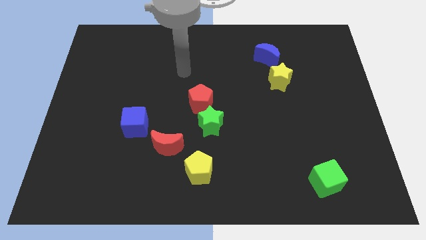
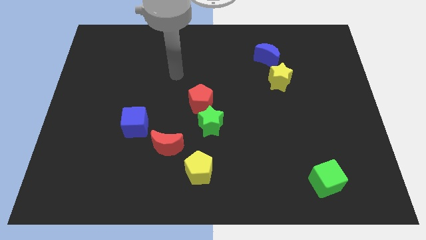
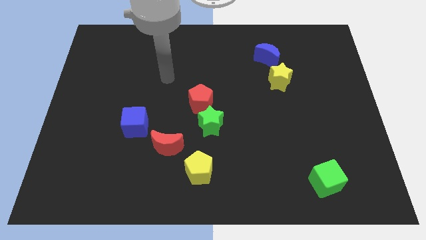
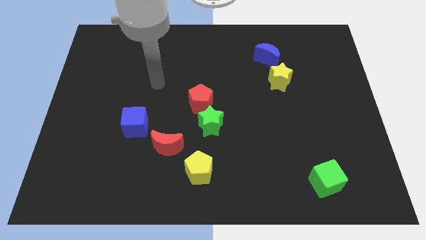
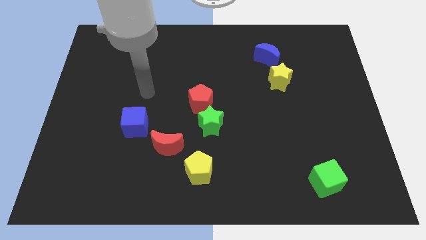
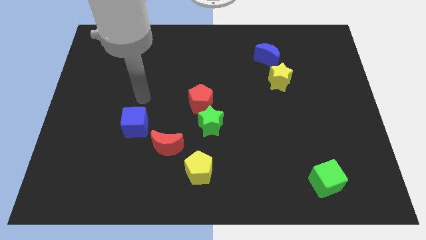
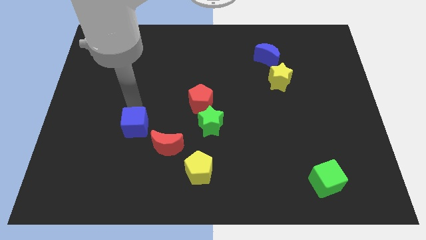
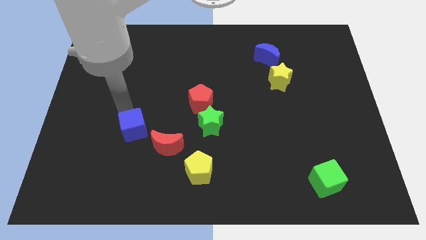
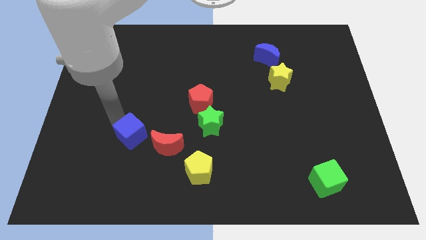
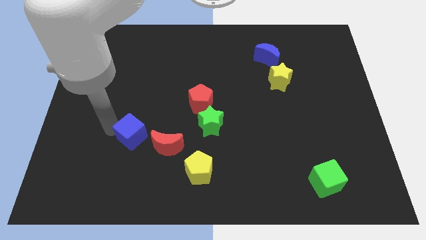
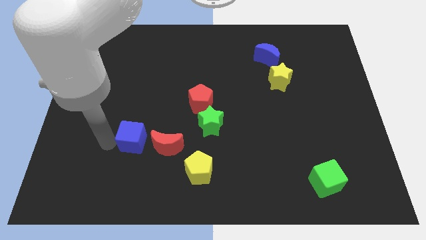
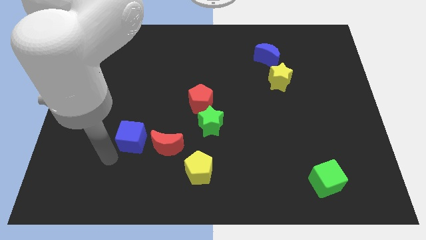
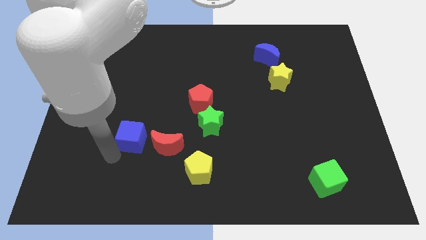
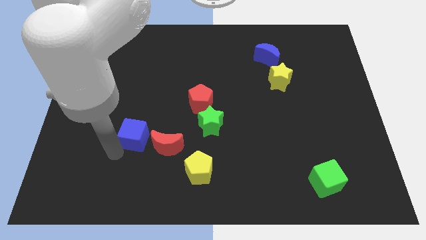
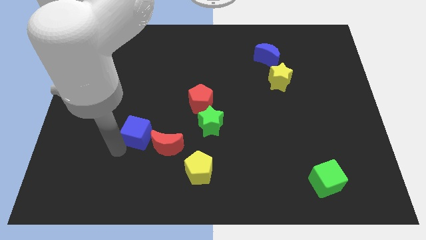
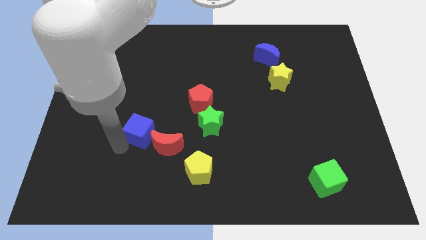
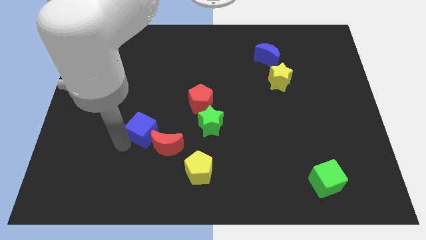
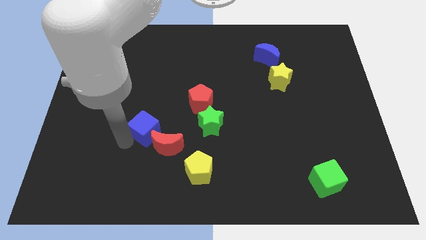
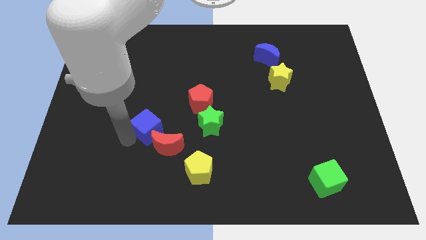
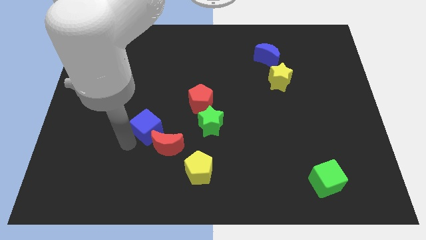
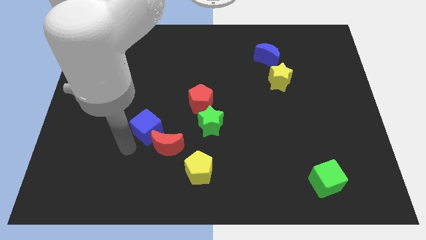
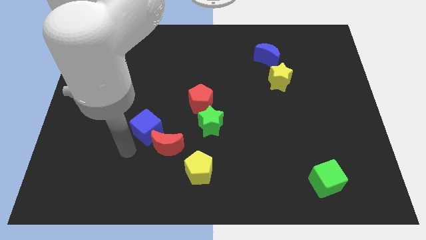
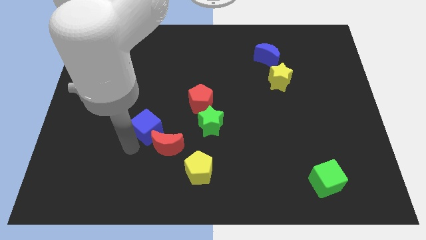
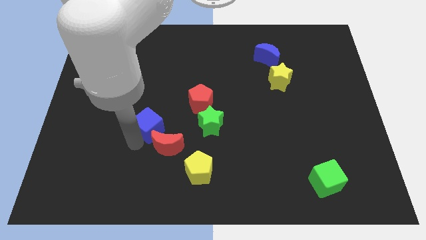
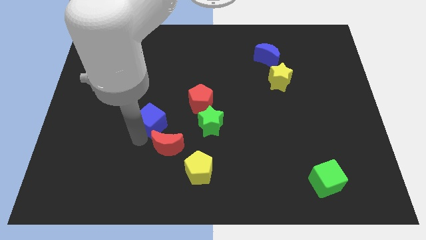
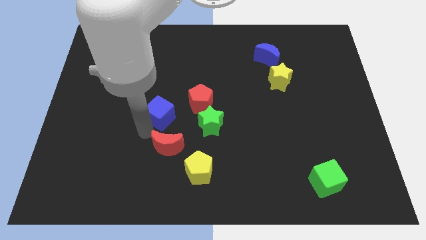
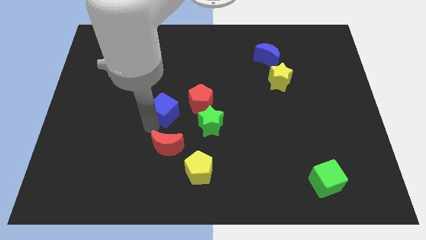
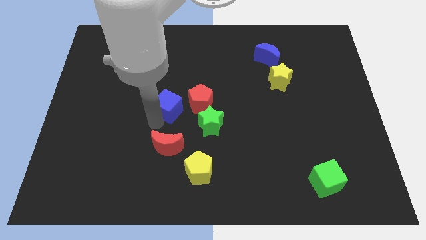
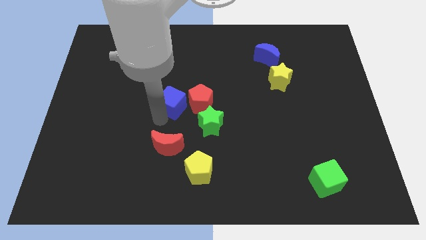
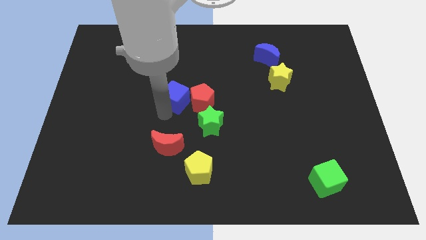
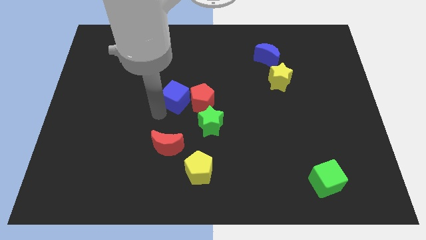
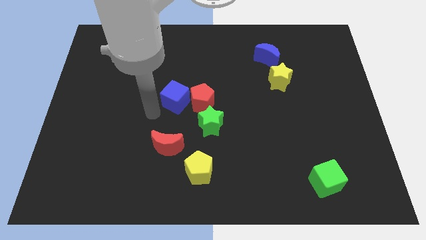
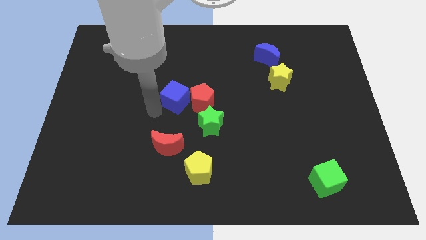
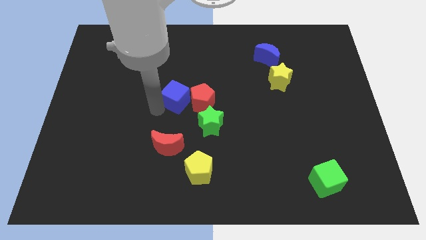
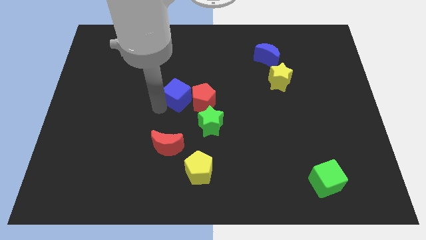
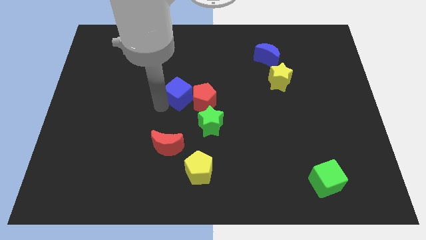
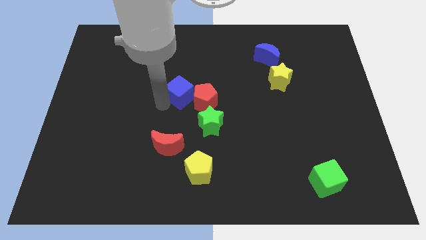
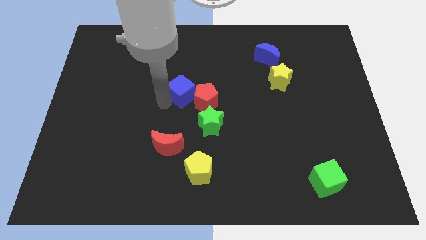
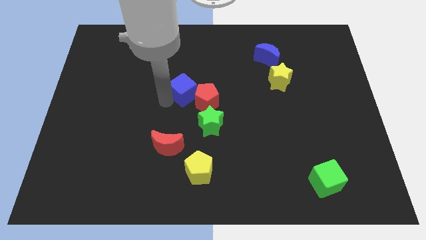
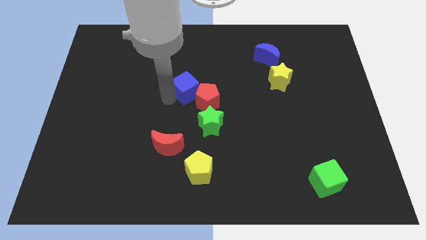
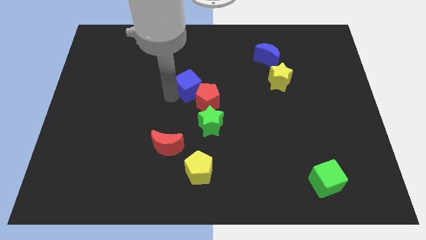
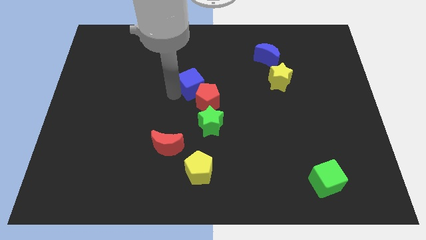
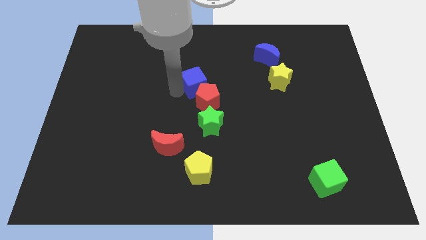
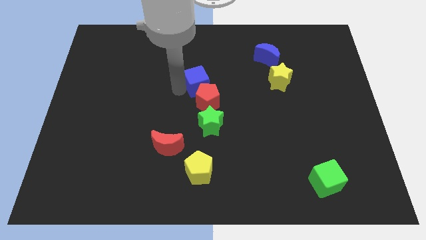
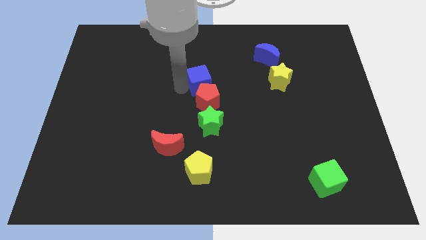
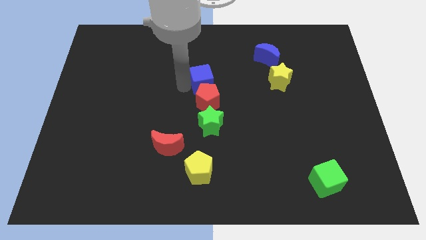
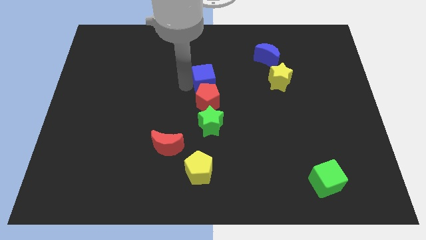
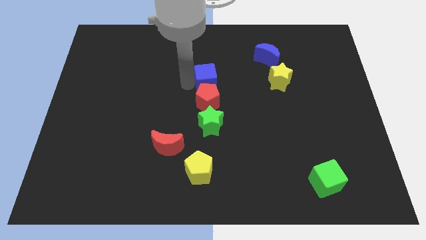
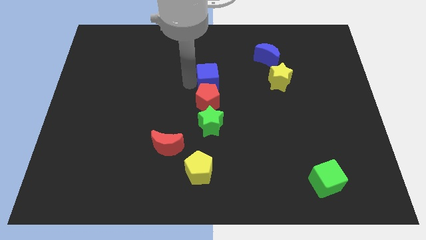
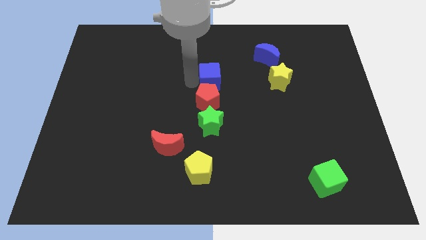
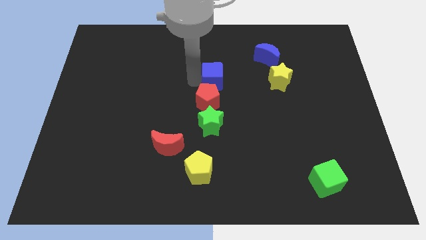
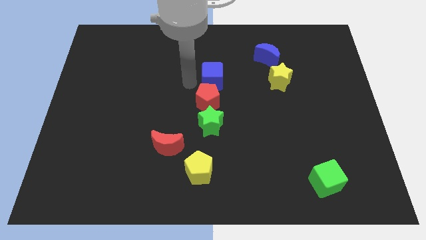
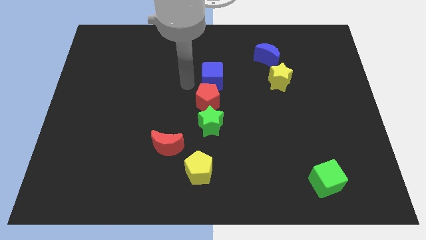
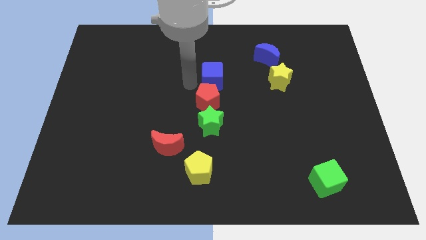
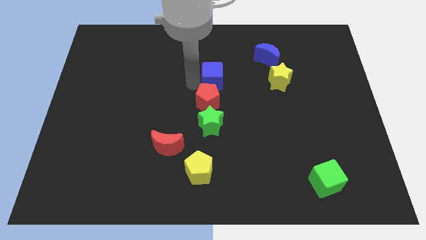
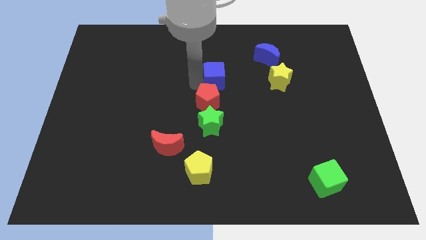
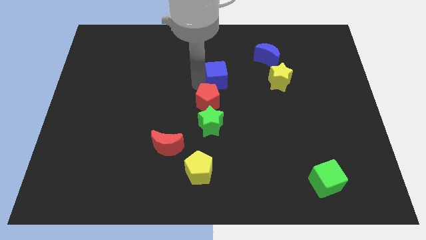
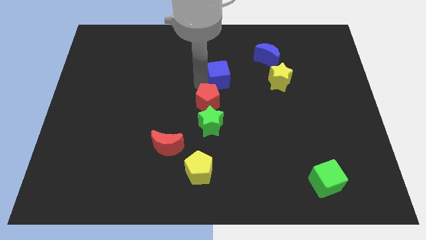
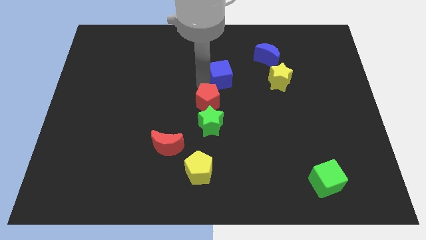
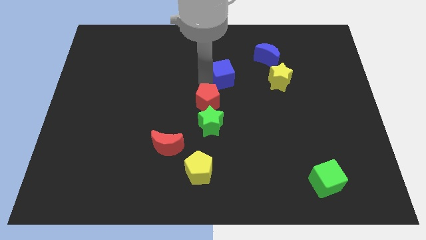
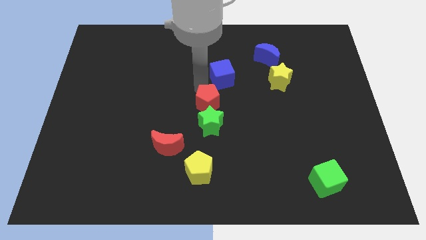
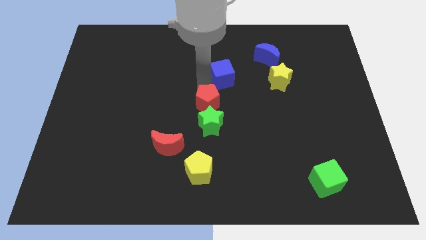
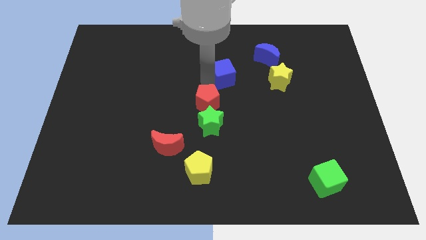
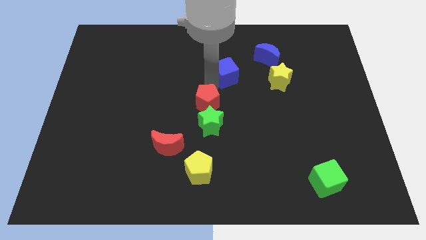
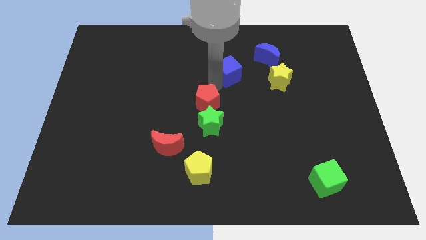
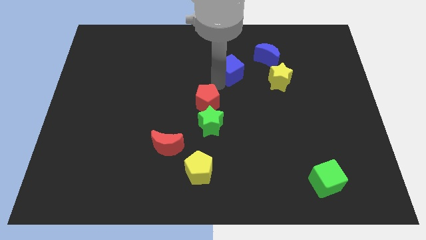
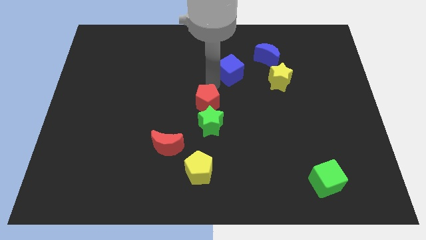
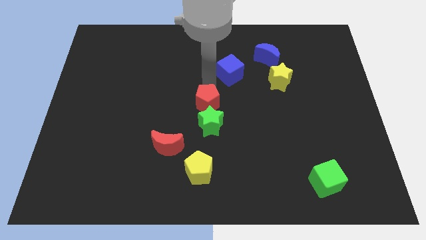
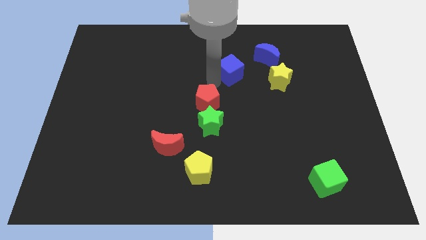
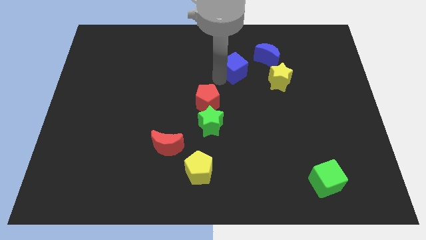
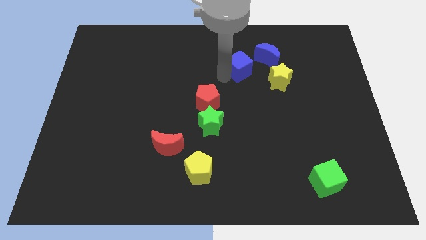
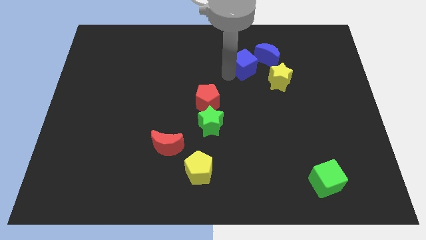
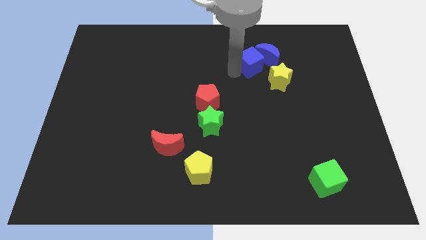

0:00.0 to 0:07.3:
push the blue cube close to the blue moon

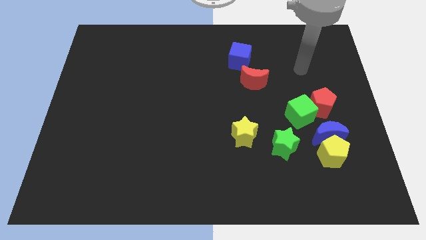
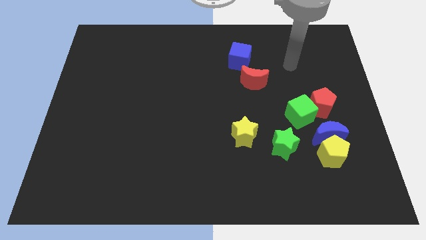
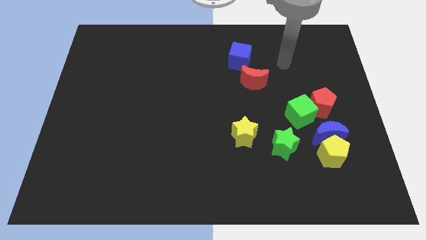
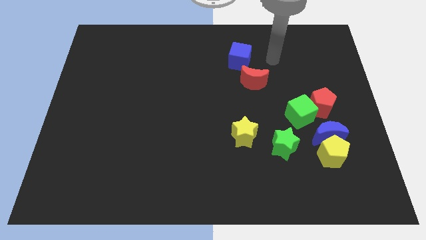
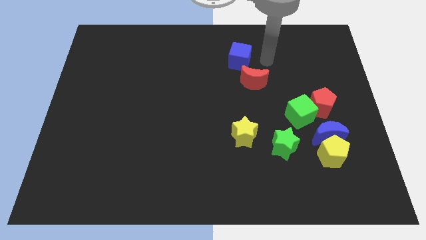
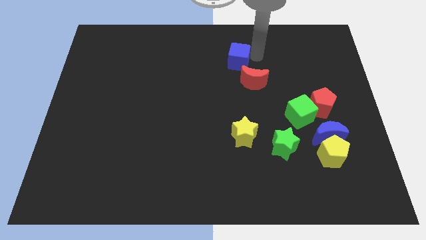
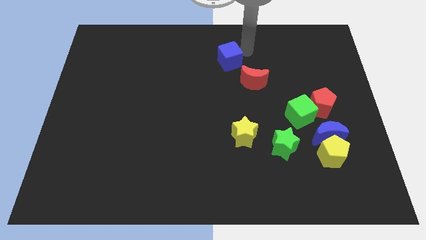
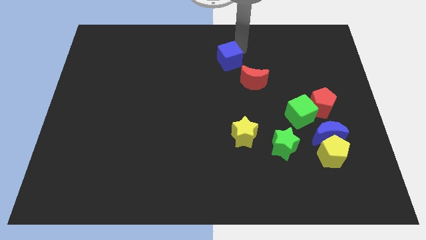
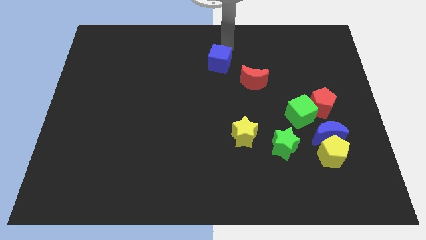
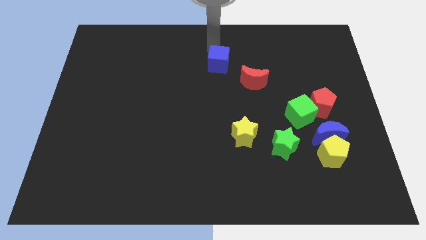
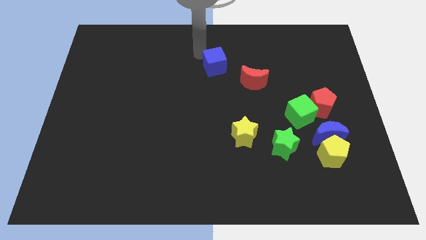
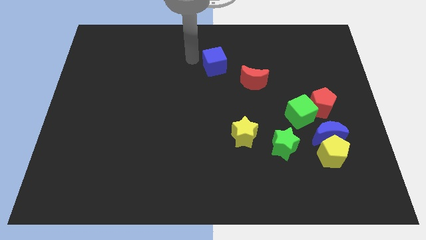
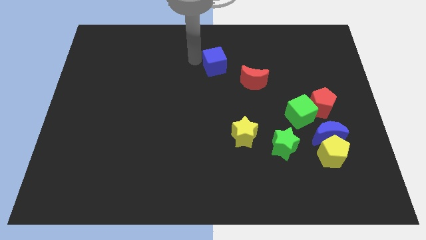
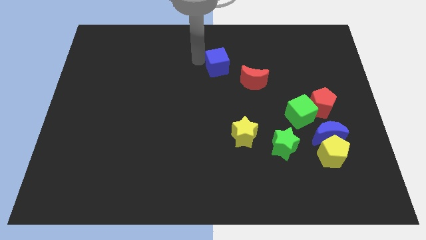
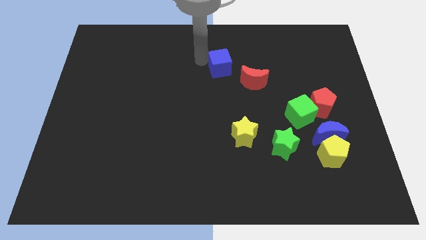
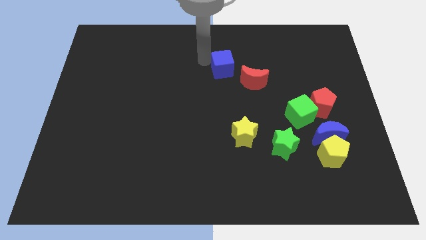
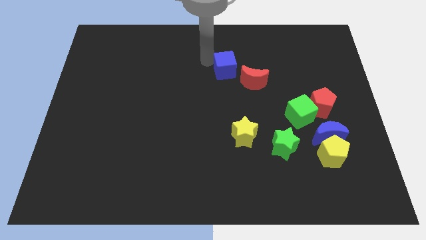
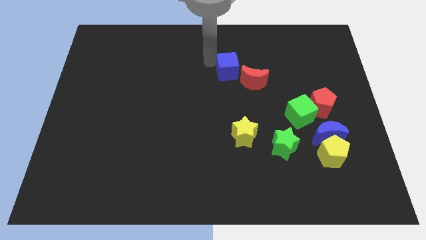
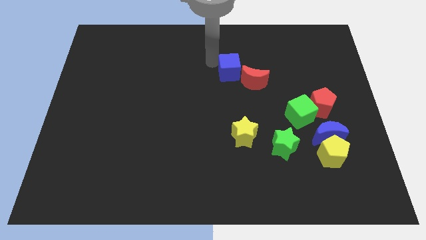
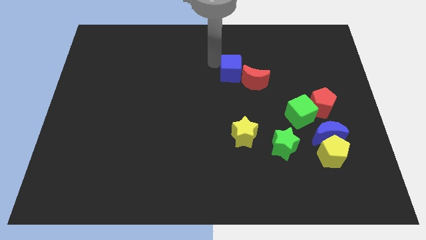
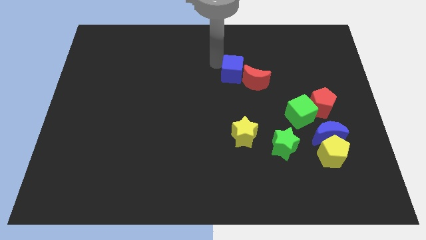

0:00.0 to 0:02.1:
put the blue cube close to the red moon
